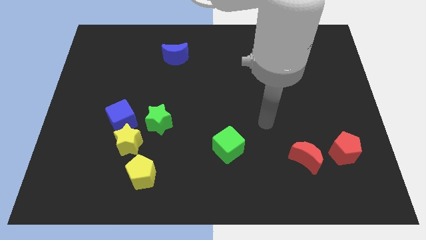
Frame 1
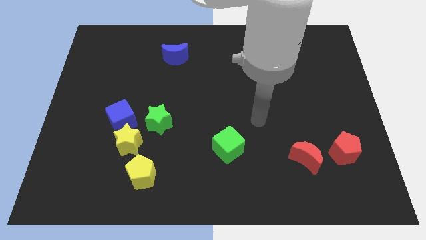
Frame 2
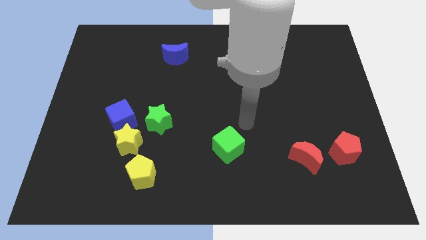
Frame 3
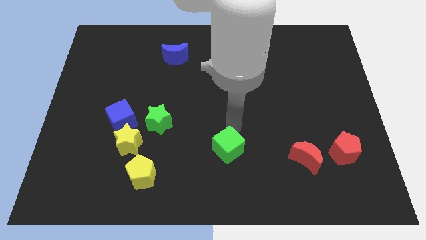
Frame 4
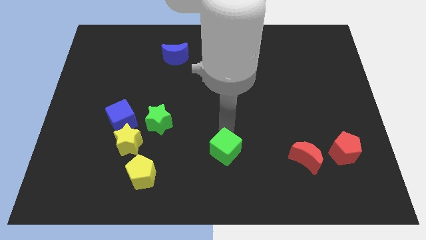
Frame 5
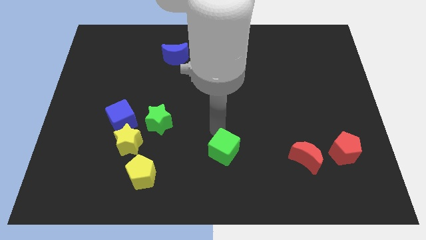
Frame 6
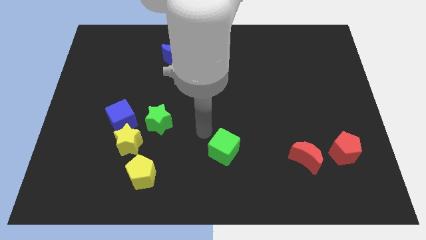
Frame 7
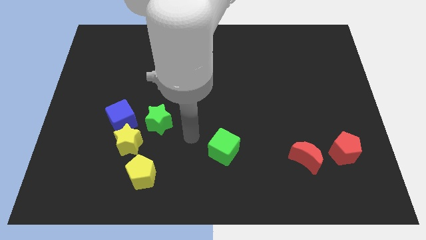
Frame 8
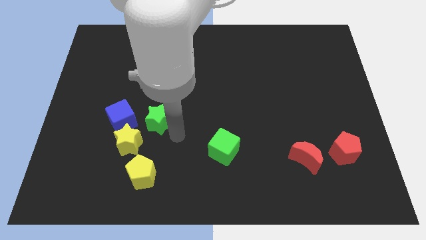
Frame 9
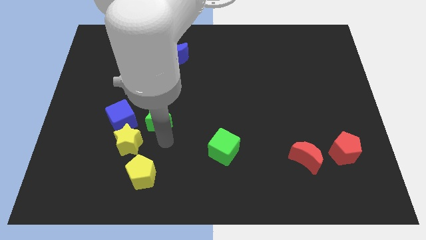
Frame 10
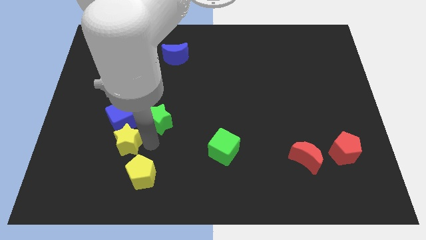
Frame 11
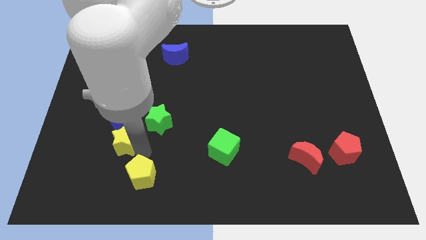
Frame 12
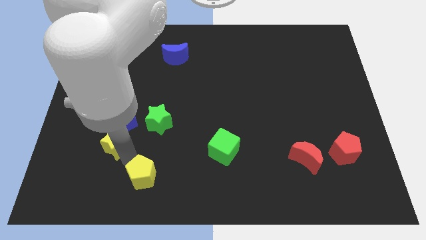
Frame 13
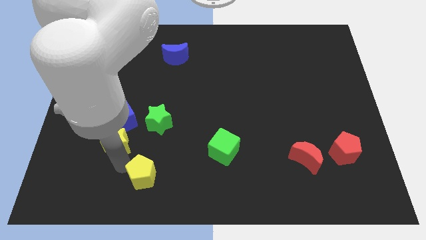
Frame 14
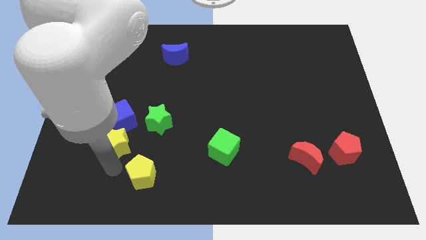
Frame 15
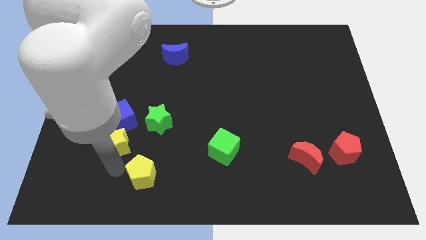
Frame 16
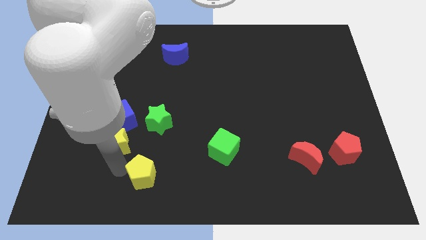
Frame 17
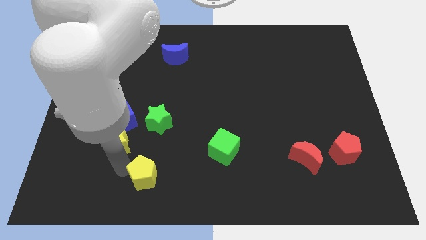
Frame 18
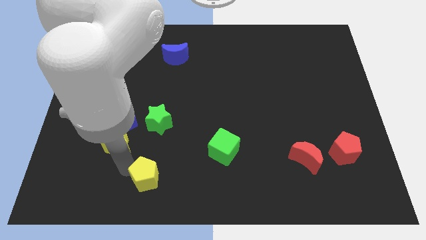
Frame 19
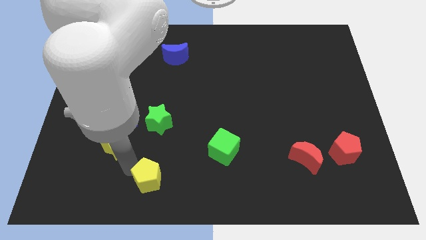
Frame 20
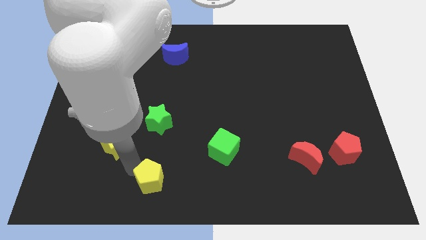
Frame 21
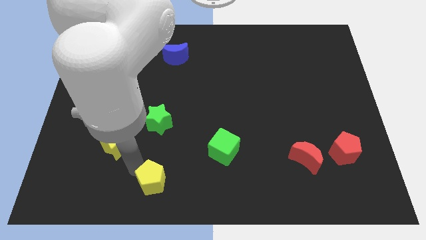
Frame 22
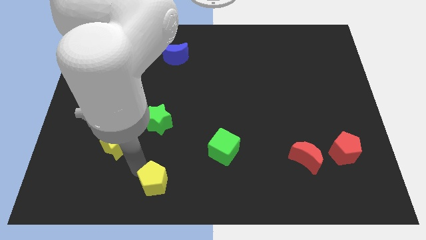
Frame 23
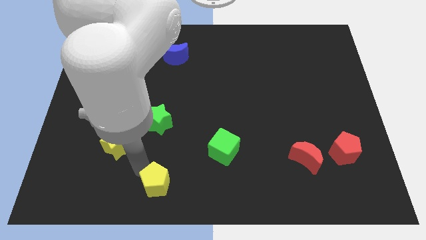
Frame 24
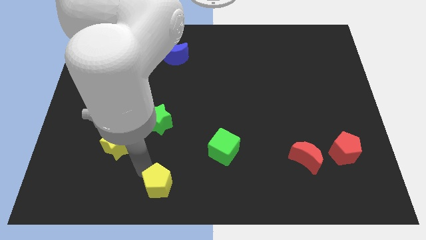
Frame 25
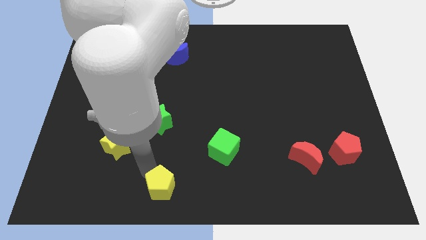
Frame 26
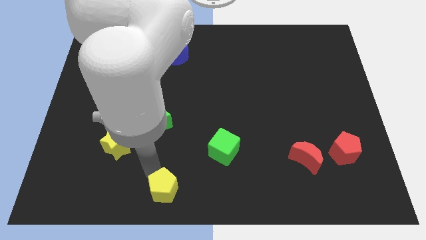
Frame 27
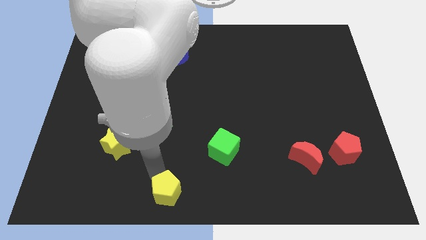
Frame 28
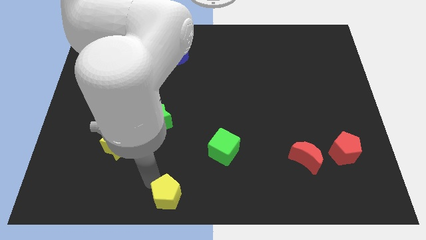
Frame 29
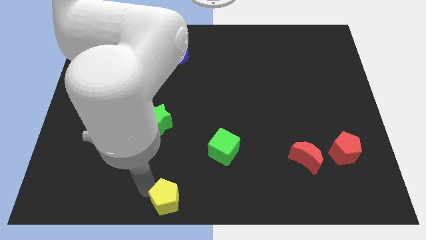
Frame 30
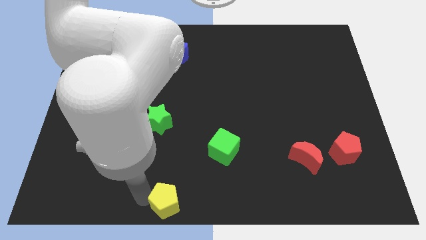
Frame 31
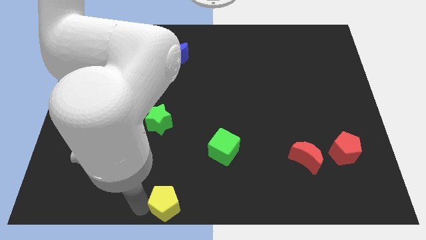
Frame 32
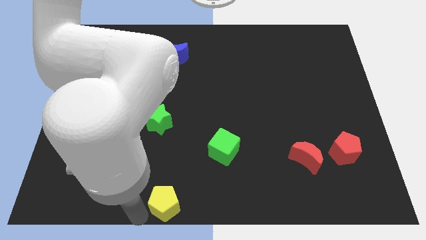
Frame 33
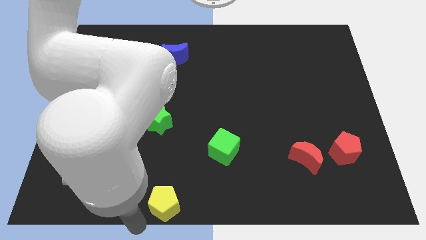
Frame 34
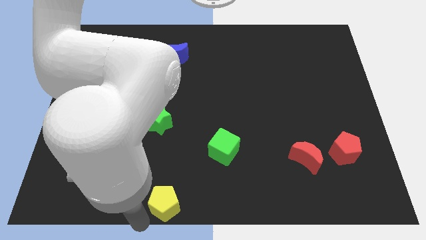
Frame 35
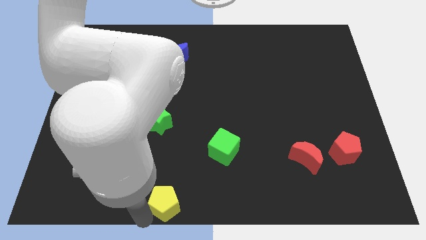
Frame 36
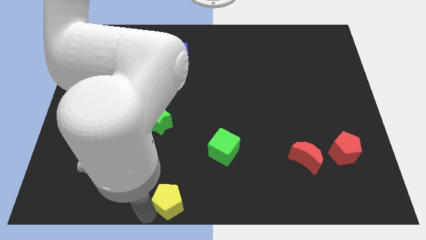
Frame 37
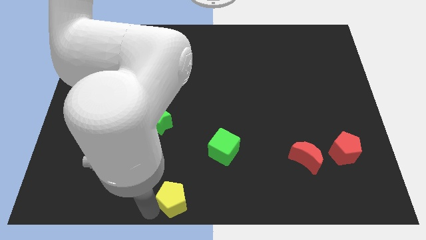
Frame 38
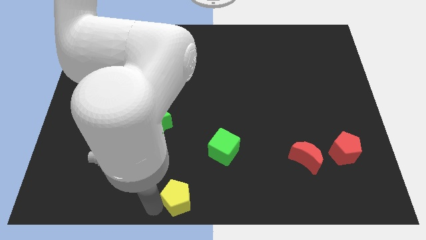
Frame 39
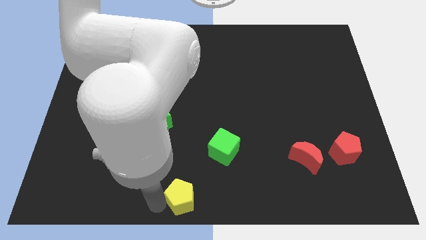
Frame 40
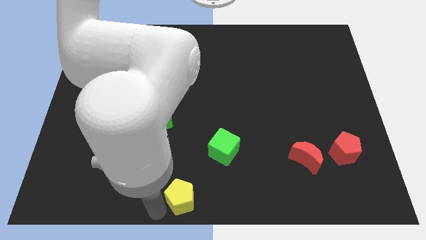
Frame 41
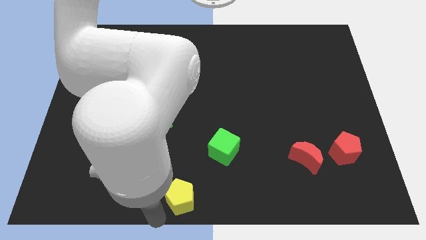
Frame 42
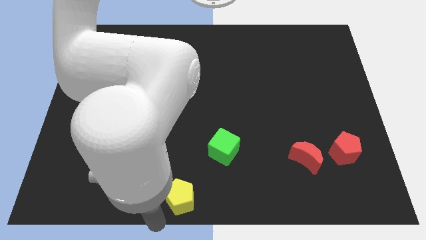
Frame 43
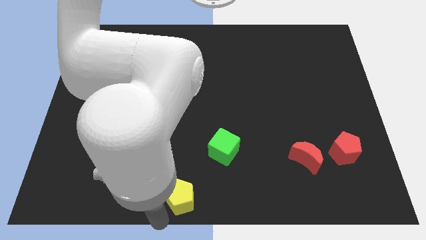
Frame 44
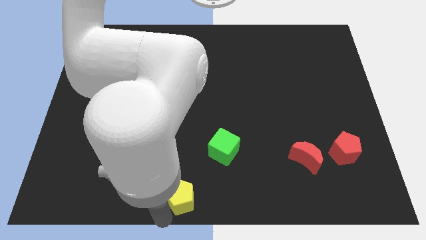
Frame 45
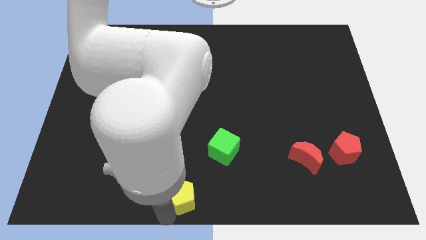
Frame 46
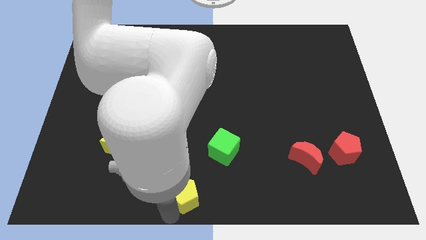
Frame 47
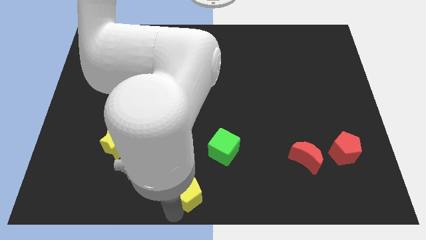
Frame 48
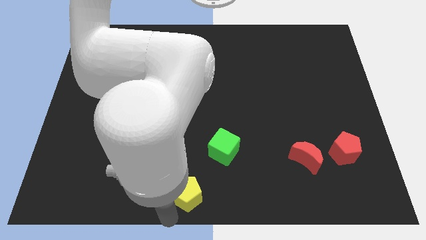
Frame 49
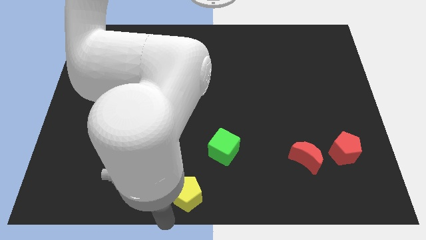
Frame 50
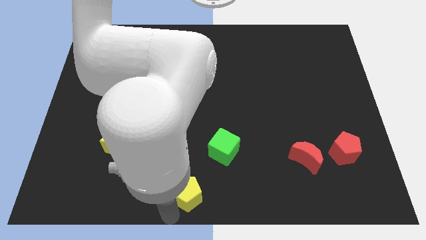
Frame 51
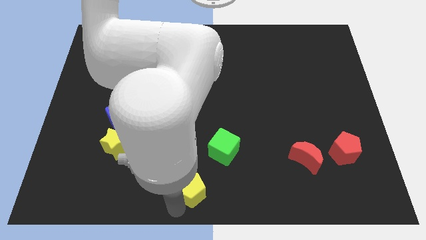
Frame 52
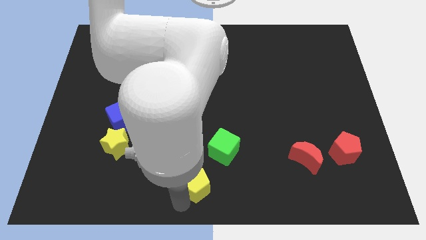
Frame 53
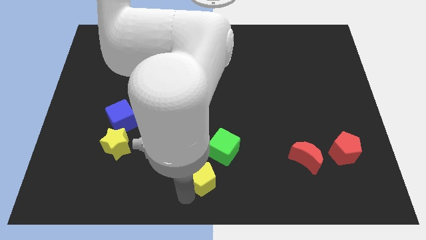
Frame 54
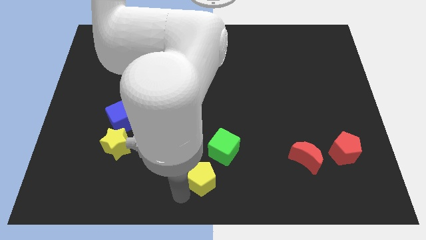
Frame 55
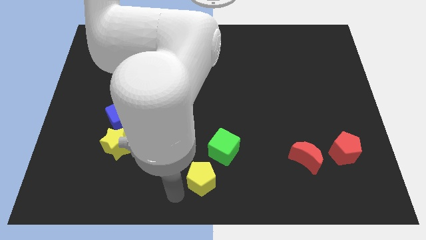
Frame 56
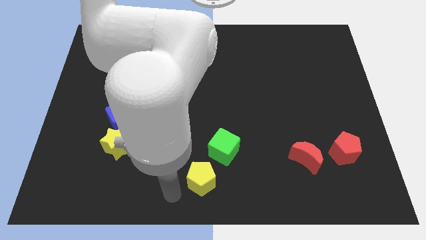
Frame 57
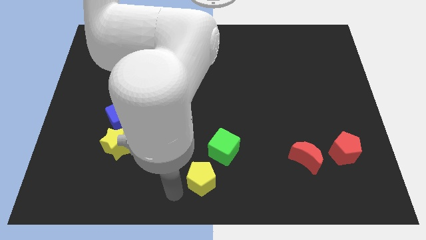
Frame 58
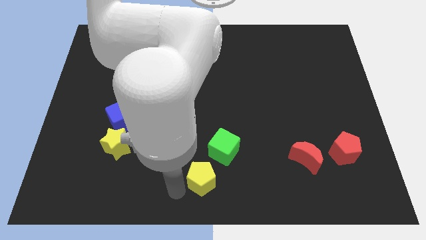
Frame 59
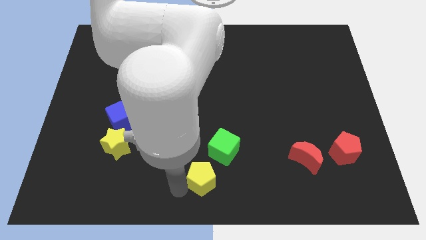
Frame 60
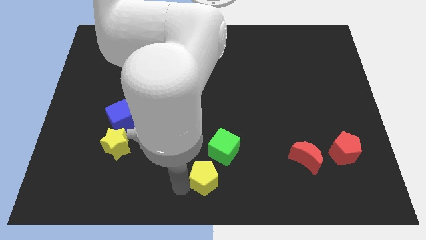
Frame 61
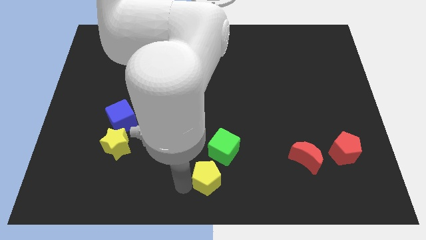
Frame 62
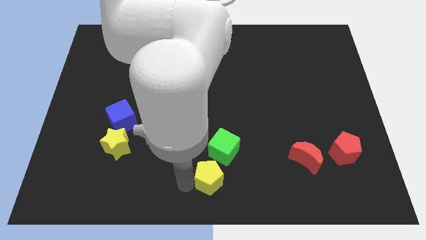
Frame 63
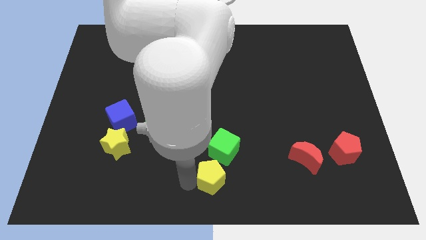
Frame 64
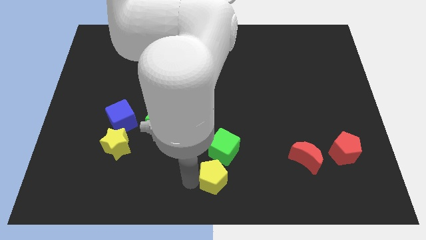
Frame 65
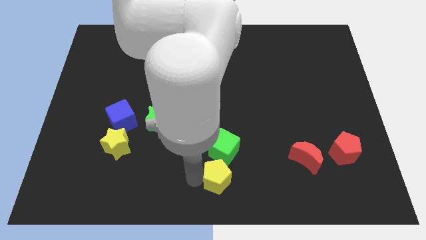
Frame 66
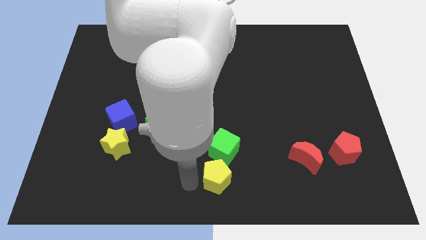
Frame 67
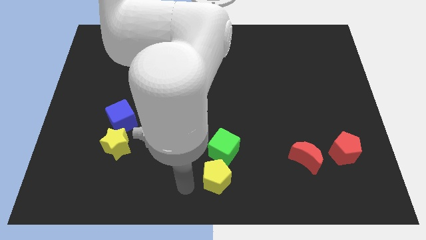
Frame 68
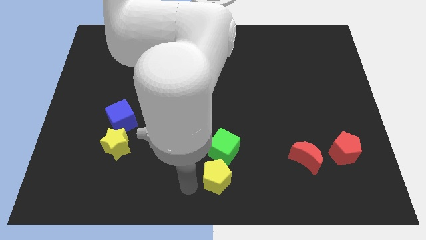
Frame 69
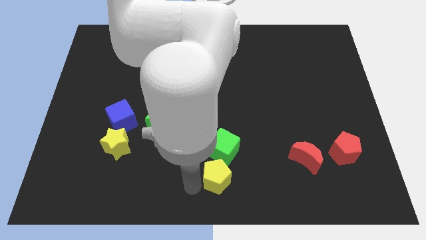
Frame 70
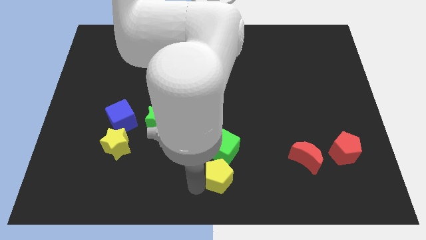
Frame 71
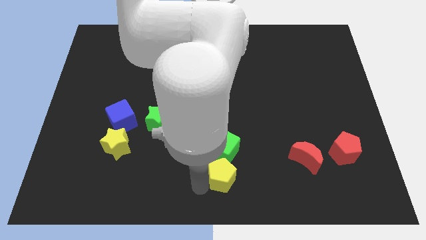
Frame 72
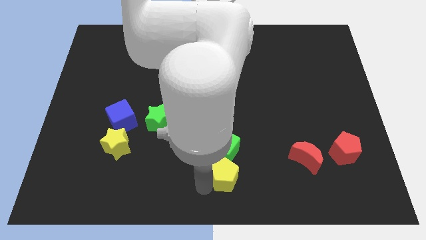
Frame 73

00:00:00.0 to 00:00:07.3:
push the yellow pentagon to the bottom right side of the green cube
